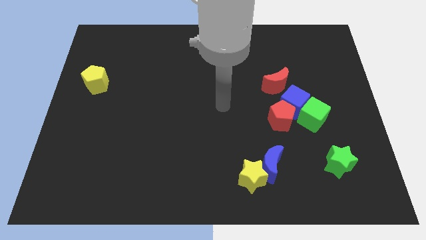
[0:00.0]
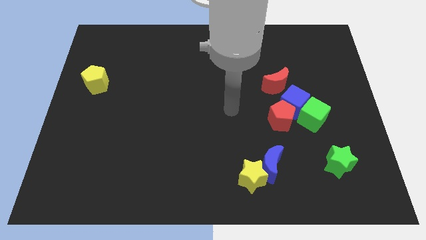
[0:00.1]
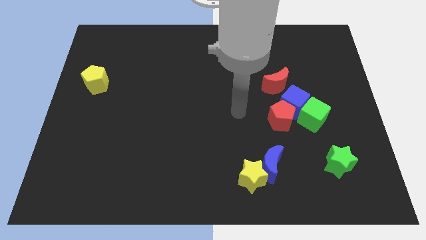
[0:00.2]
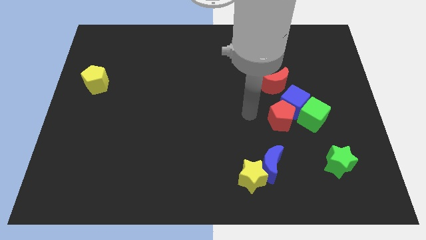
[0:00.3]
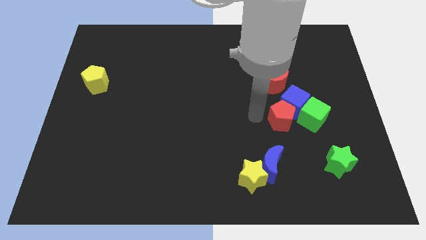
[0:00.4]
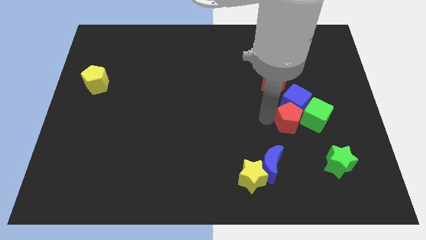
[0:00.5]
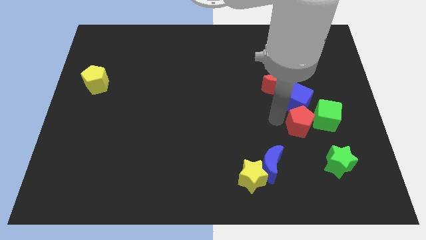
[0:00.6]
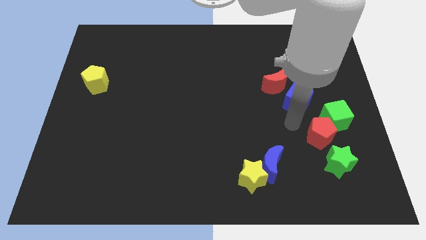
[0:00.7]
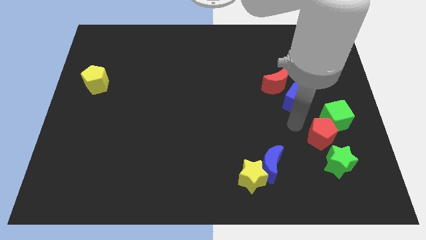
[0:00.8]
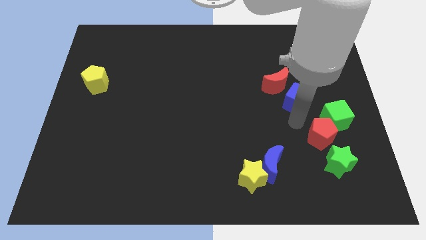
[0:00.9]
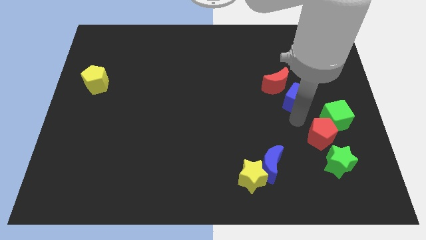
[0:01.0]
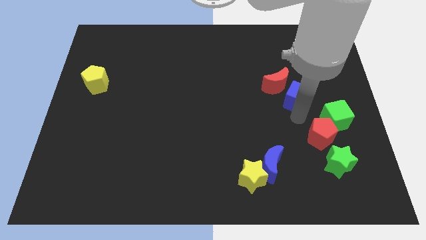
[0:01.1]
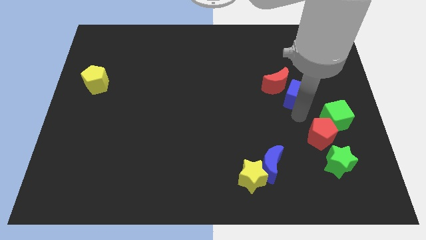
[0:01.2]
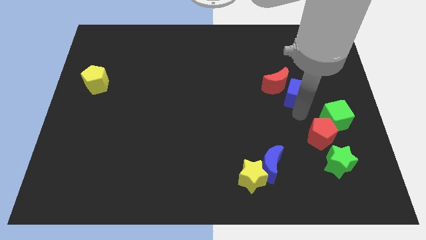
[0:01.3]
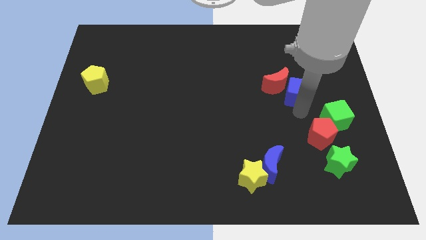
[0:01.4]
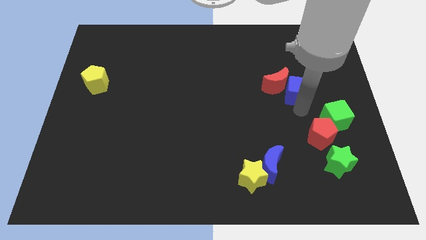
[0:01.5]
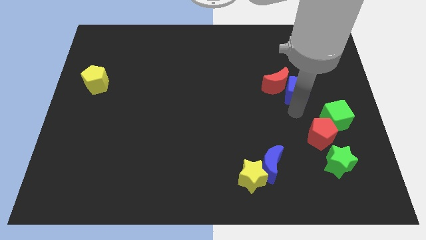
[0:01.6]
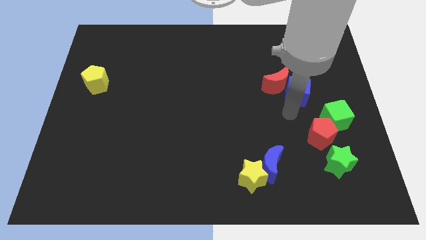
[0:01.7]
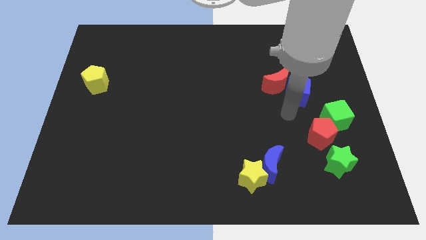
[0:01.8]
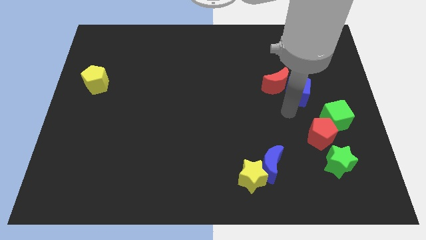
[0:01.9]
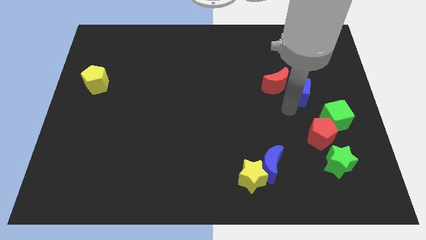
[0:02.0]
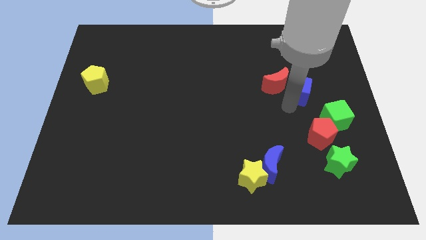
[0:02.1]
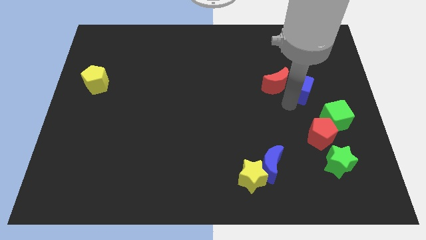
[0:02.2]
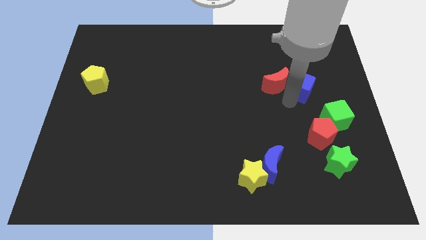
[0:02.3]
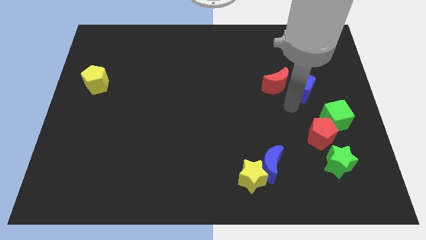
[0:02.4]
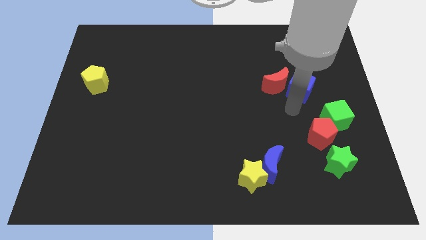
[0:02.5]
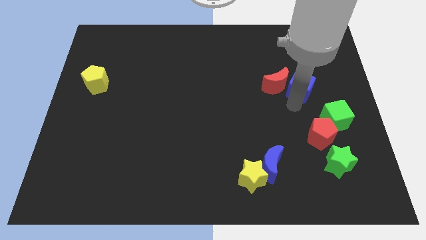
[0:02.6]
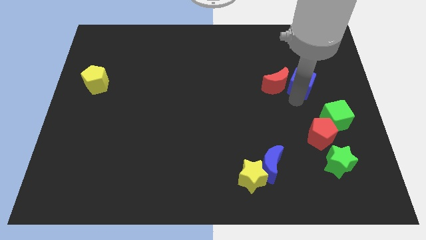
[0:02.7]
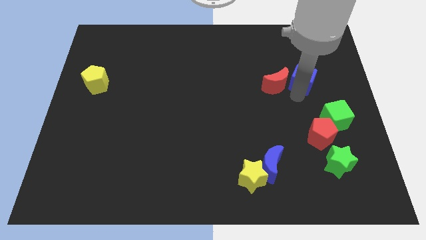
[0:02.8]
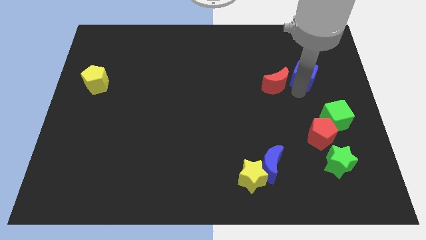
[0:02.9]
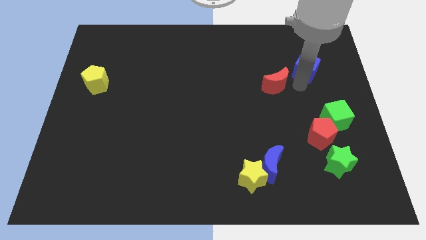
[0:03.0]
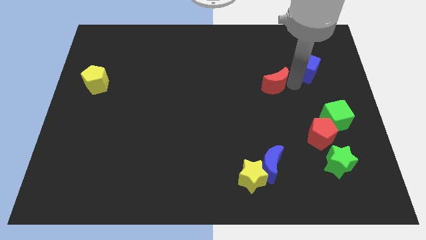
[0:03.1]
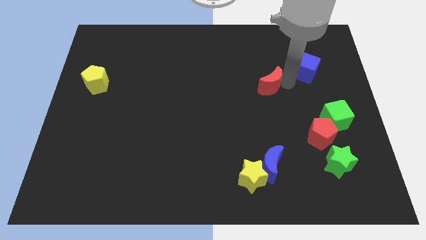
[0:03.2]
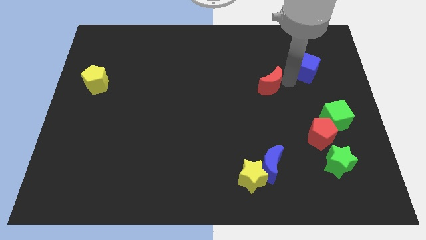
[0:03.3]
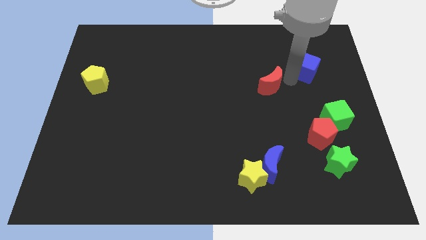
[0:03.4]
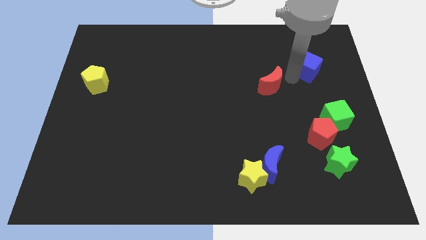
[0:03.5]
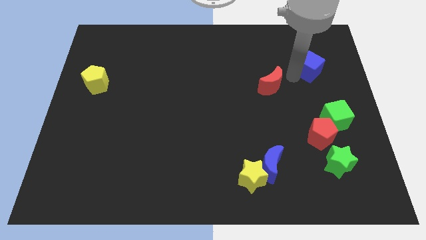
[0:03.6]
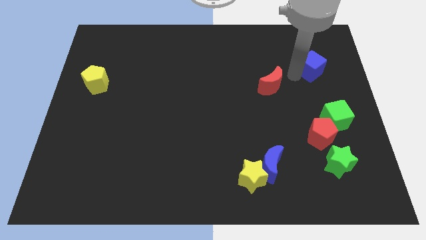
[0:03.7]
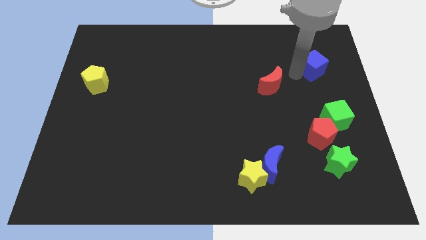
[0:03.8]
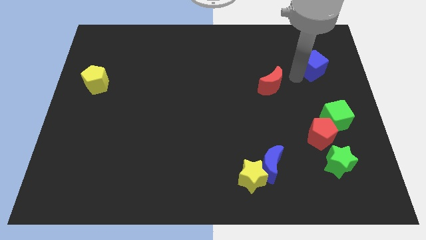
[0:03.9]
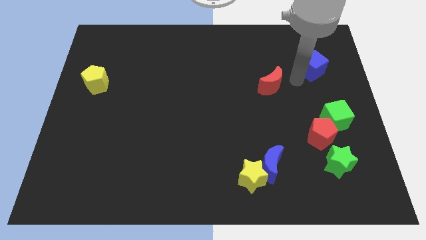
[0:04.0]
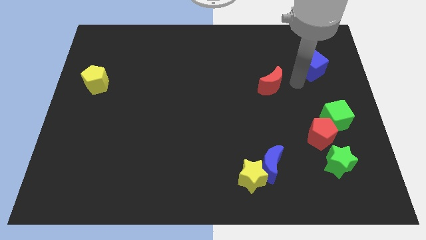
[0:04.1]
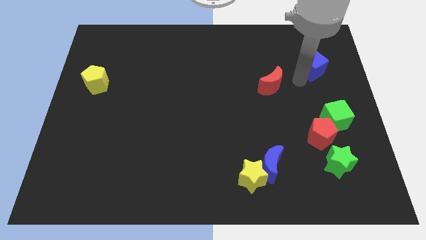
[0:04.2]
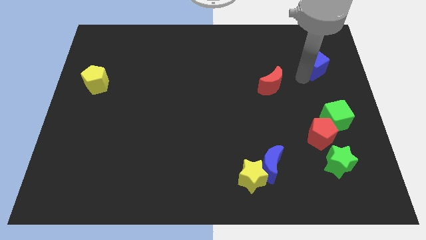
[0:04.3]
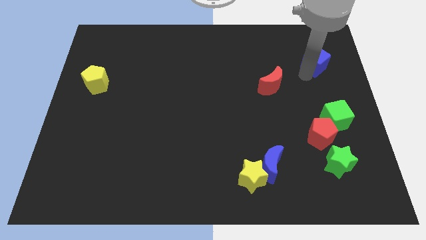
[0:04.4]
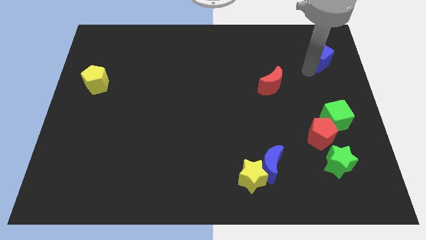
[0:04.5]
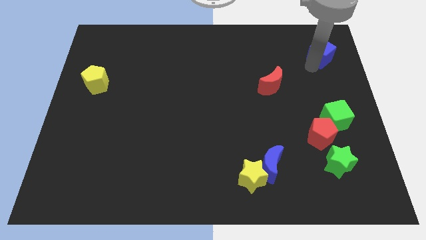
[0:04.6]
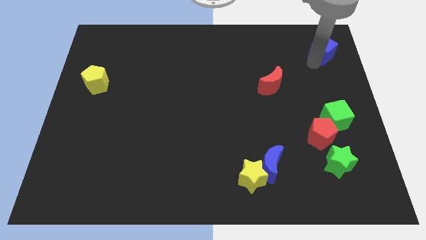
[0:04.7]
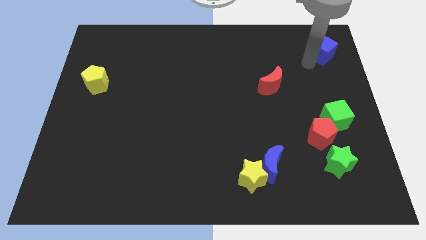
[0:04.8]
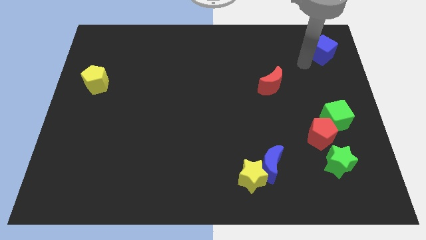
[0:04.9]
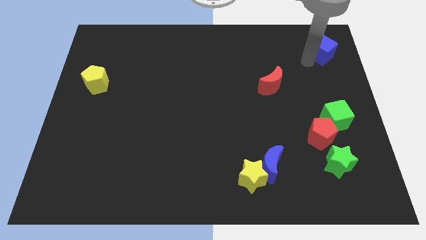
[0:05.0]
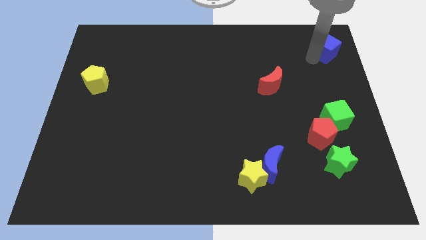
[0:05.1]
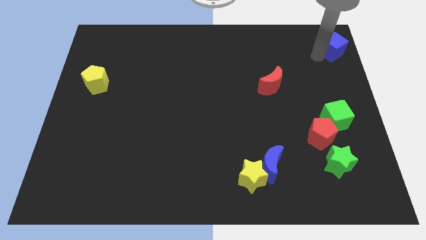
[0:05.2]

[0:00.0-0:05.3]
put the blue cube to the top right corner

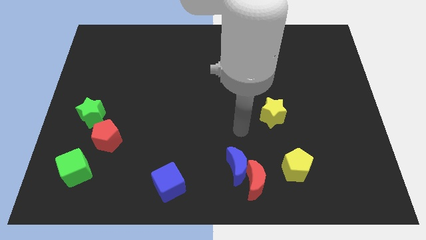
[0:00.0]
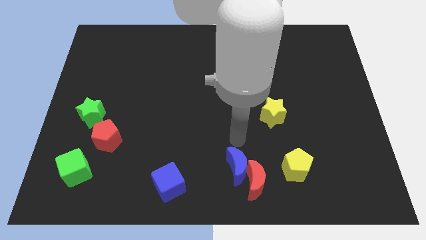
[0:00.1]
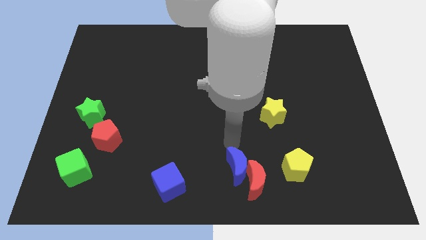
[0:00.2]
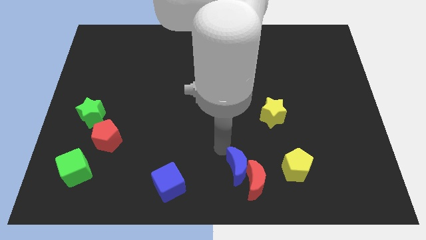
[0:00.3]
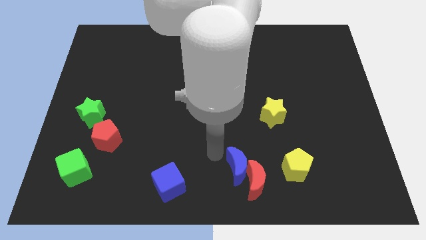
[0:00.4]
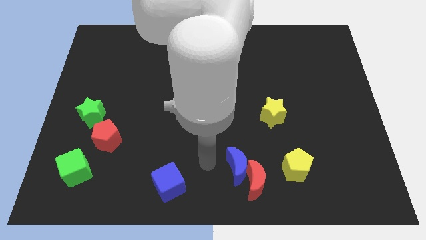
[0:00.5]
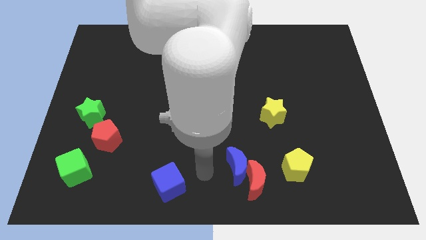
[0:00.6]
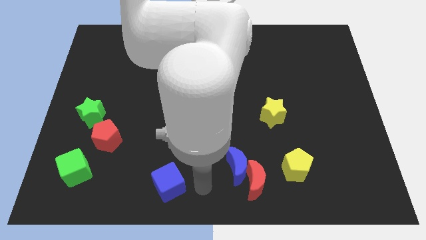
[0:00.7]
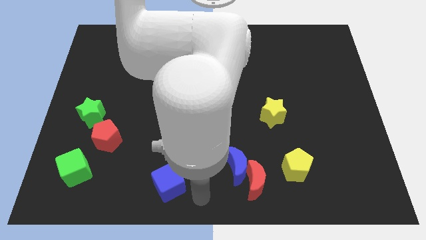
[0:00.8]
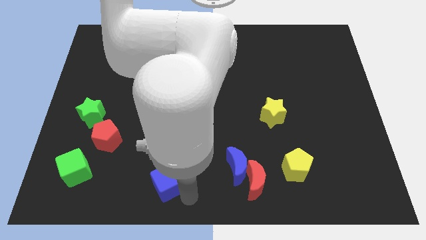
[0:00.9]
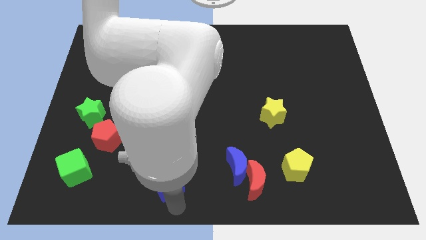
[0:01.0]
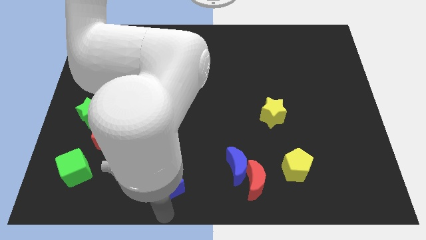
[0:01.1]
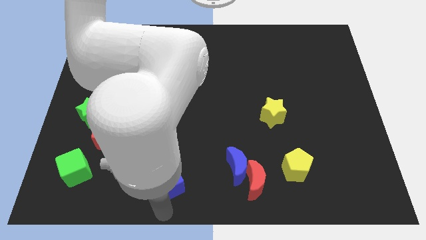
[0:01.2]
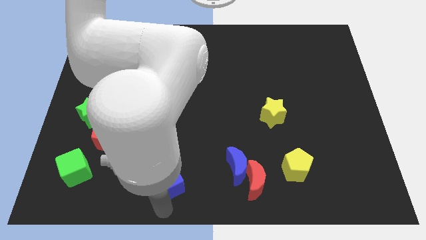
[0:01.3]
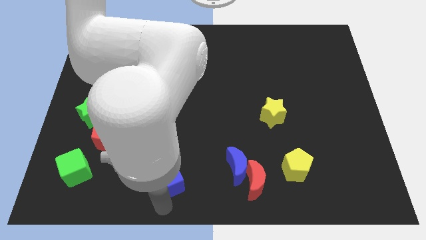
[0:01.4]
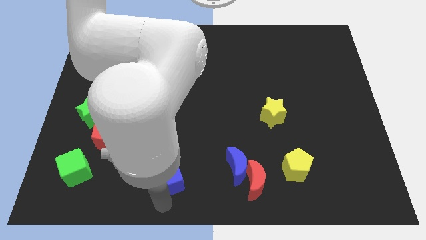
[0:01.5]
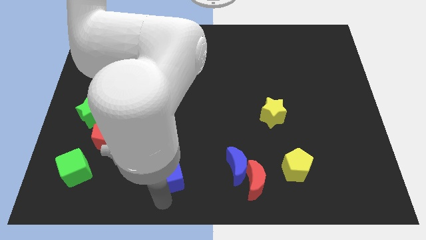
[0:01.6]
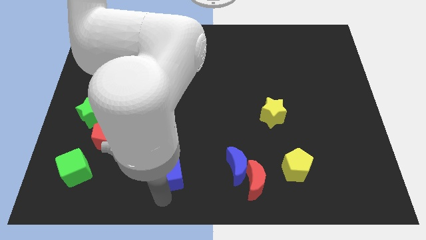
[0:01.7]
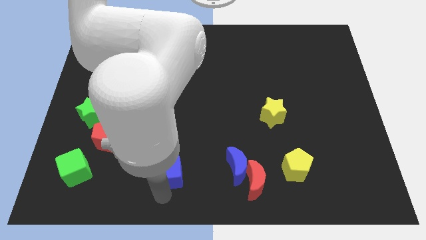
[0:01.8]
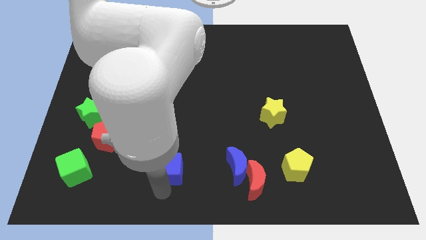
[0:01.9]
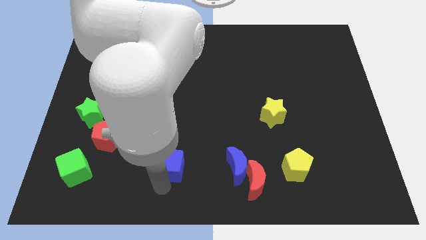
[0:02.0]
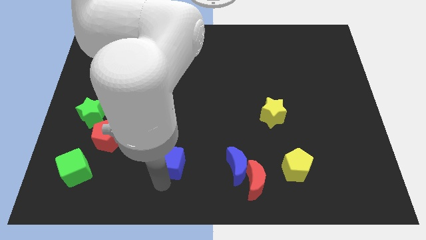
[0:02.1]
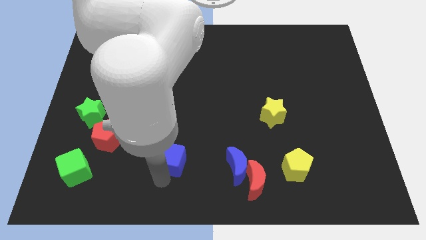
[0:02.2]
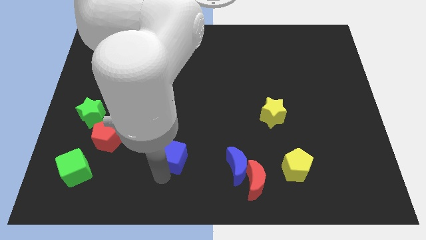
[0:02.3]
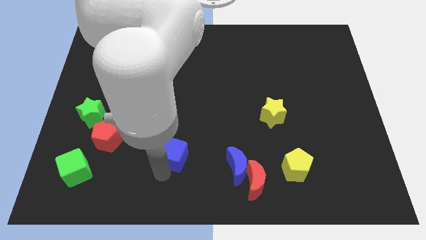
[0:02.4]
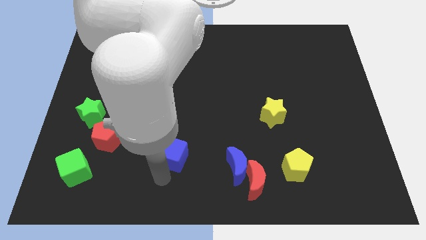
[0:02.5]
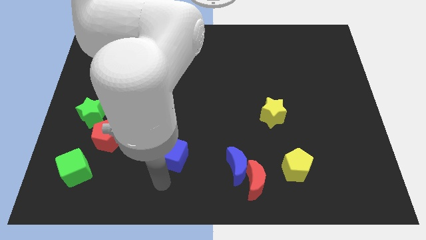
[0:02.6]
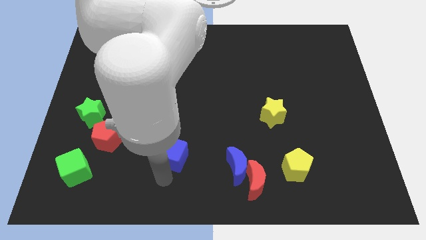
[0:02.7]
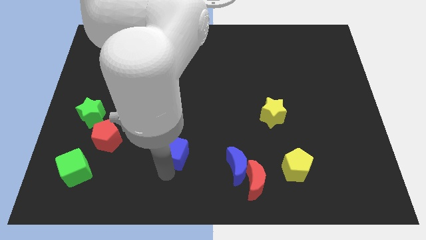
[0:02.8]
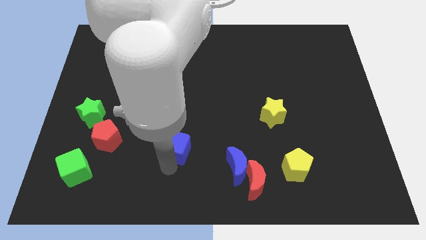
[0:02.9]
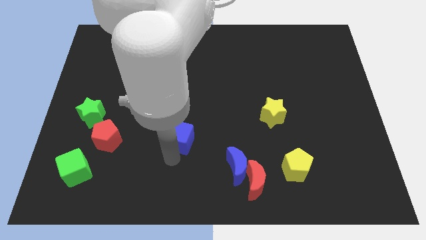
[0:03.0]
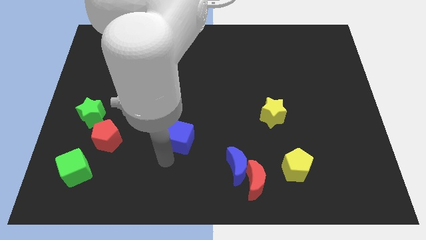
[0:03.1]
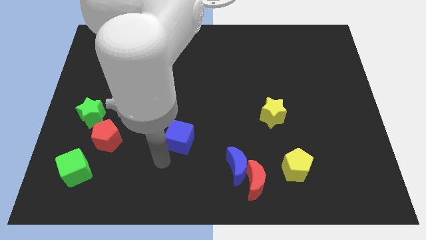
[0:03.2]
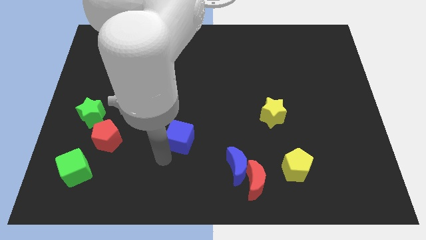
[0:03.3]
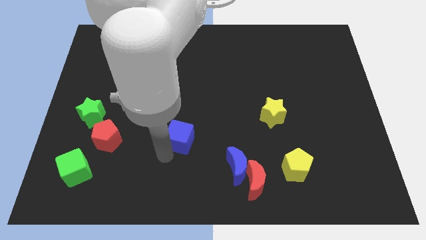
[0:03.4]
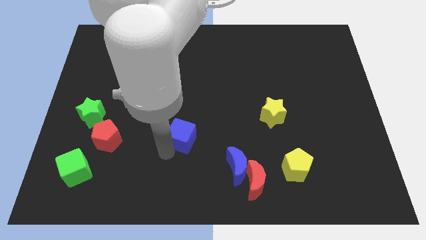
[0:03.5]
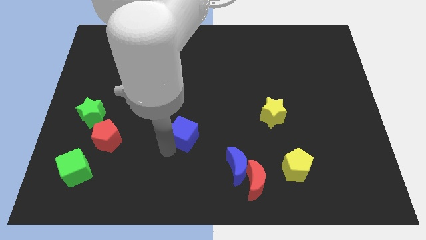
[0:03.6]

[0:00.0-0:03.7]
push the blue cube to the center of the board
